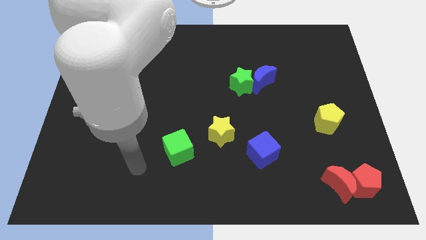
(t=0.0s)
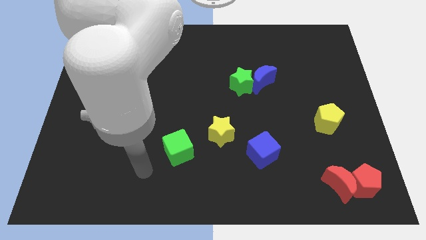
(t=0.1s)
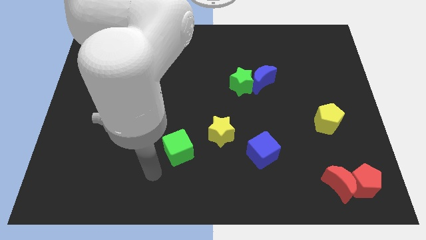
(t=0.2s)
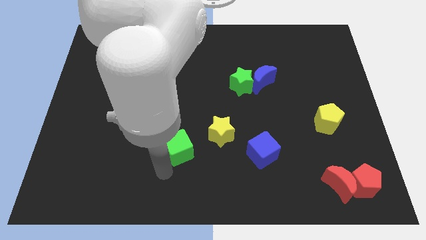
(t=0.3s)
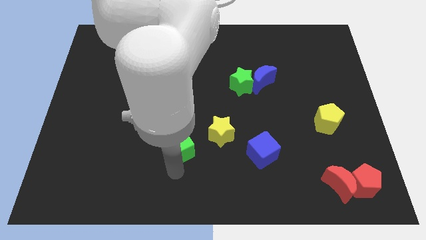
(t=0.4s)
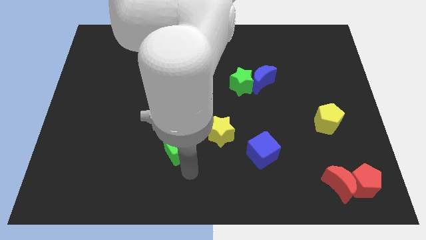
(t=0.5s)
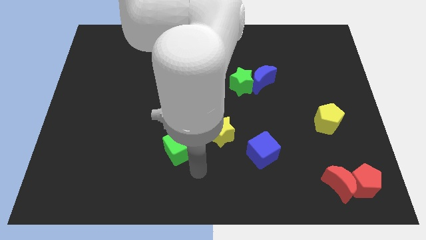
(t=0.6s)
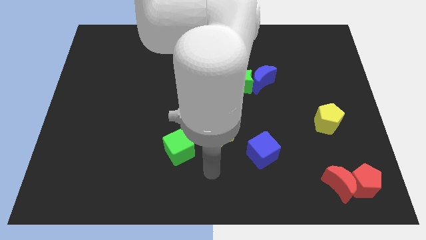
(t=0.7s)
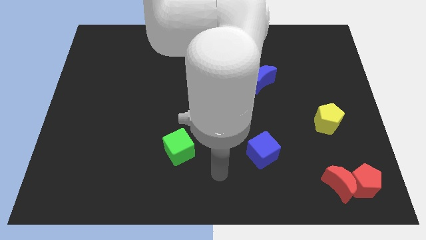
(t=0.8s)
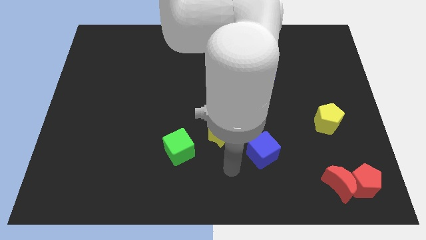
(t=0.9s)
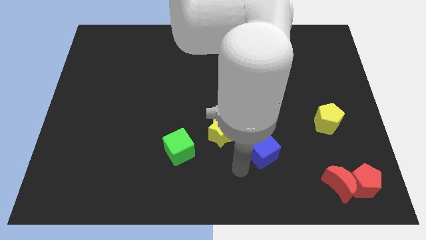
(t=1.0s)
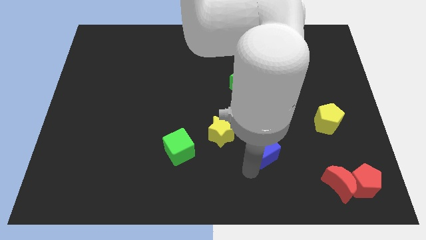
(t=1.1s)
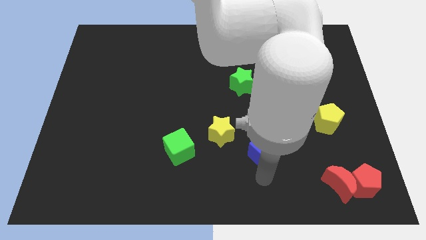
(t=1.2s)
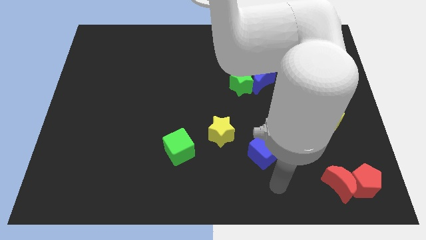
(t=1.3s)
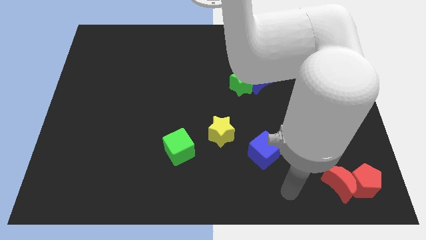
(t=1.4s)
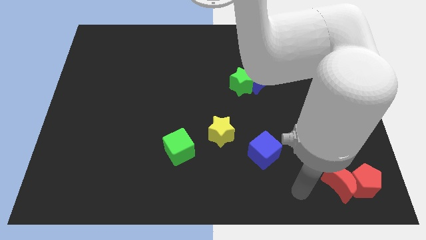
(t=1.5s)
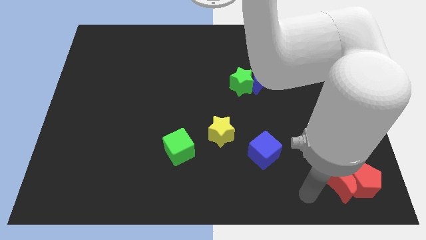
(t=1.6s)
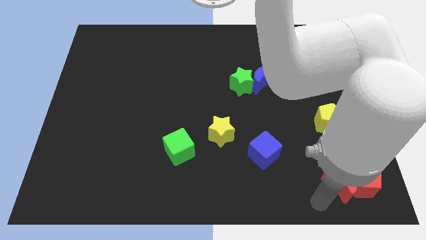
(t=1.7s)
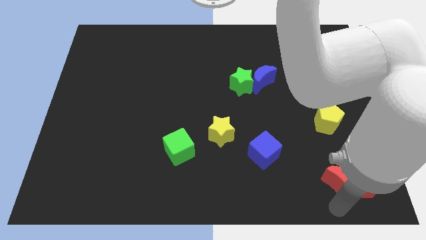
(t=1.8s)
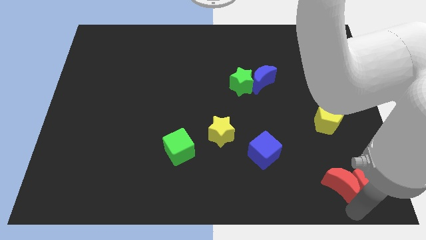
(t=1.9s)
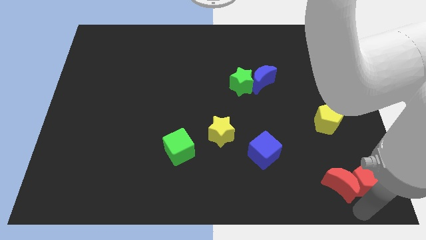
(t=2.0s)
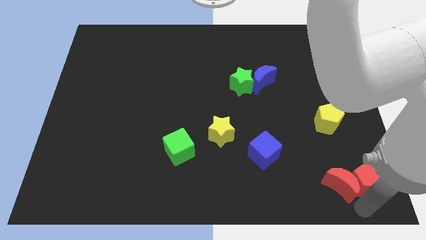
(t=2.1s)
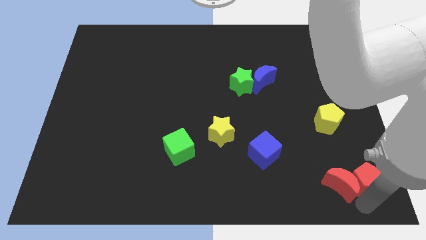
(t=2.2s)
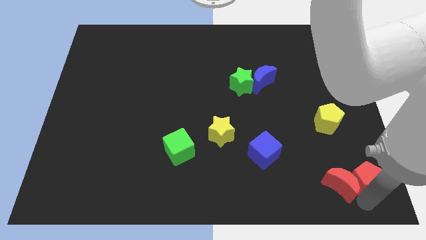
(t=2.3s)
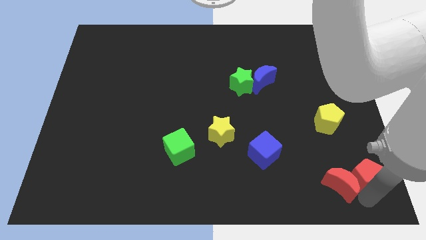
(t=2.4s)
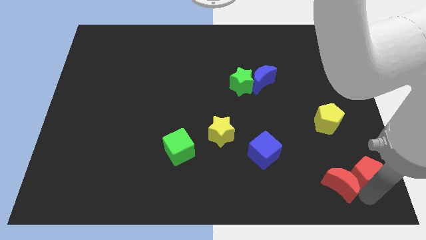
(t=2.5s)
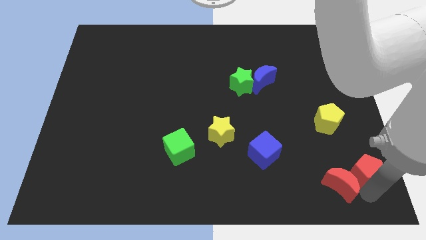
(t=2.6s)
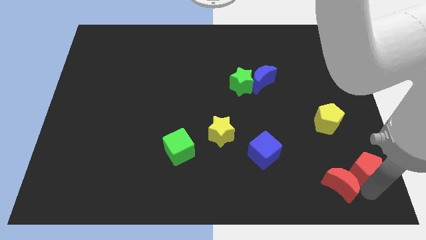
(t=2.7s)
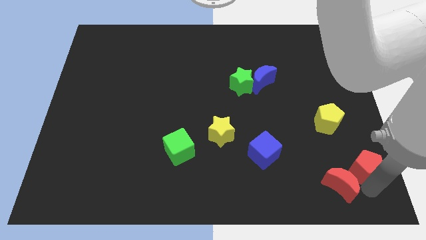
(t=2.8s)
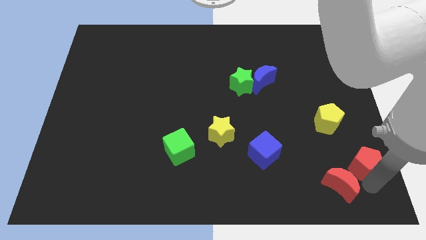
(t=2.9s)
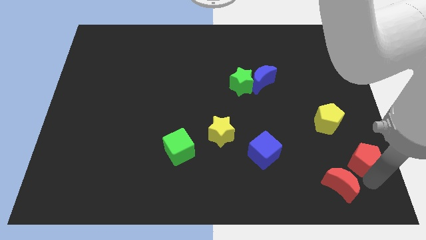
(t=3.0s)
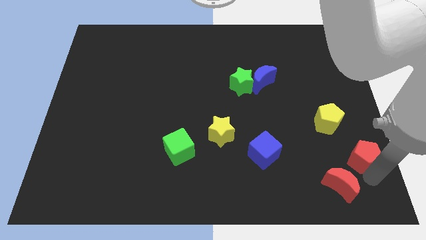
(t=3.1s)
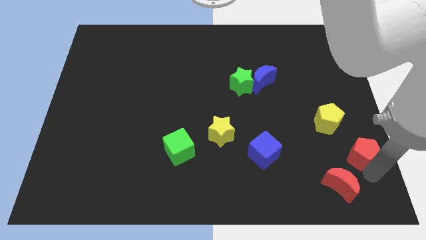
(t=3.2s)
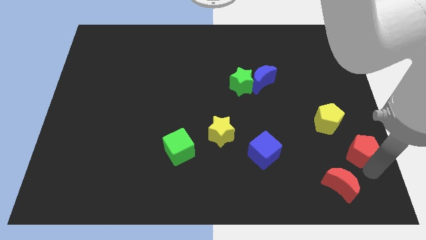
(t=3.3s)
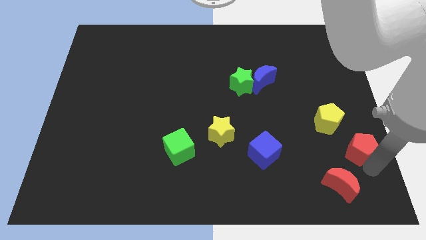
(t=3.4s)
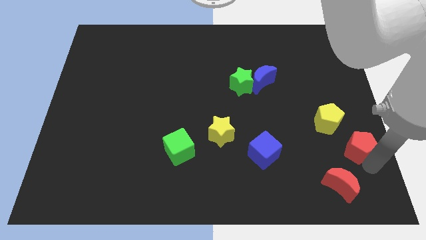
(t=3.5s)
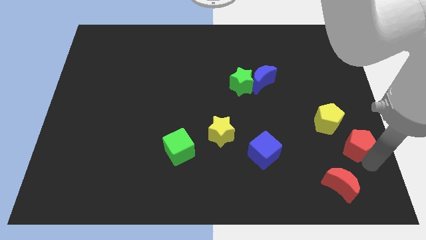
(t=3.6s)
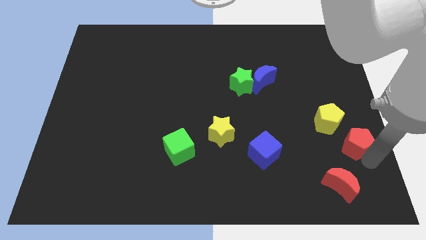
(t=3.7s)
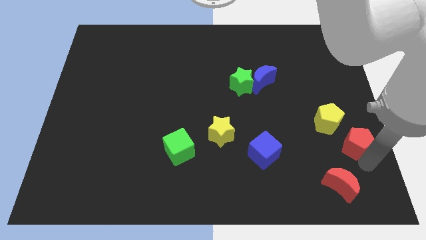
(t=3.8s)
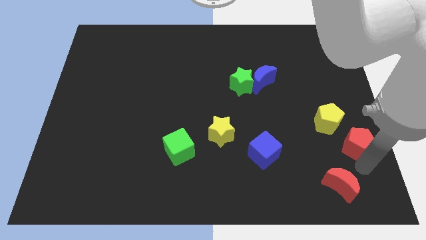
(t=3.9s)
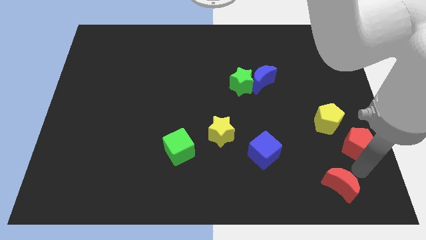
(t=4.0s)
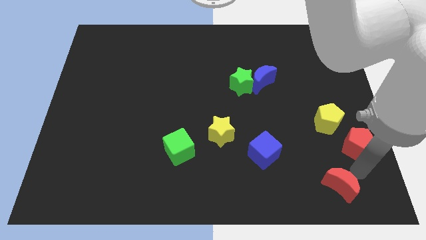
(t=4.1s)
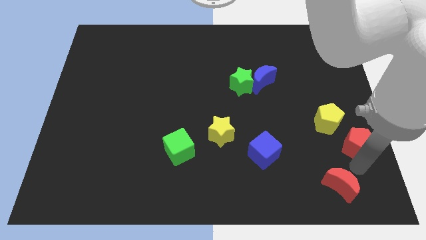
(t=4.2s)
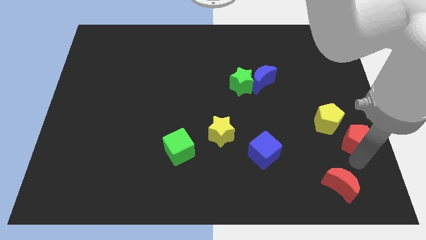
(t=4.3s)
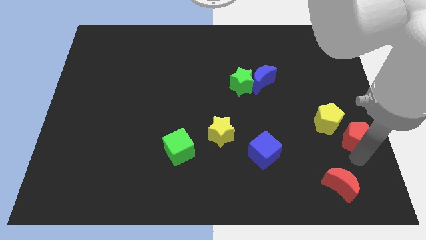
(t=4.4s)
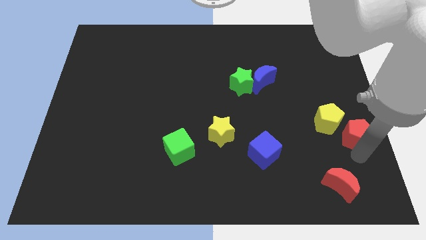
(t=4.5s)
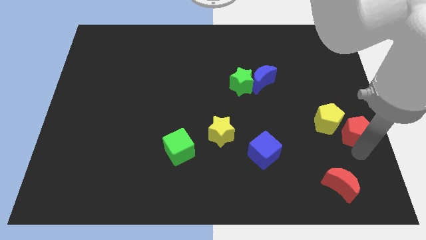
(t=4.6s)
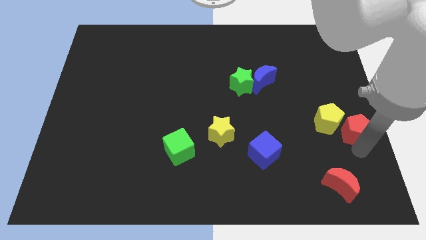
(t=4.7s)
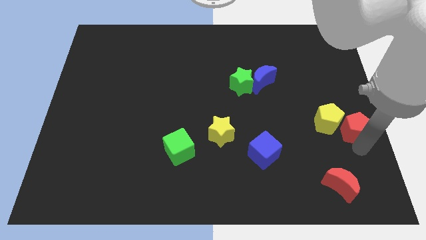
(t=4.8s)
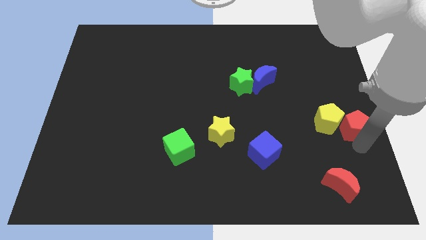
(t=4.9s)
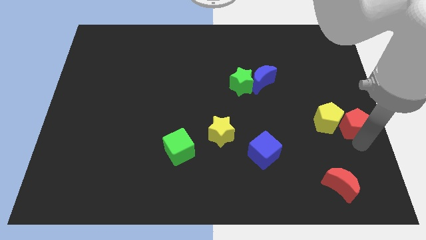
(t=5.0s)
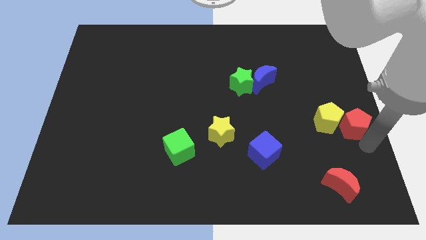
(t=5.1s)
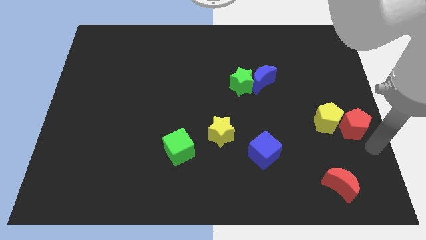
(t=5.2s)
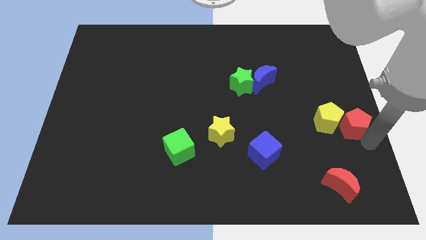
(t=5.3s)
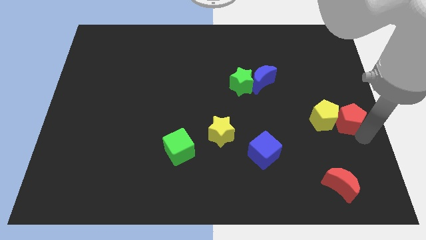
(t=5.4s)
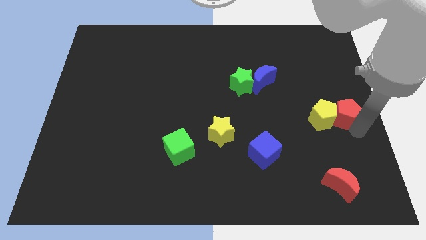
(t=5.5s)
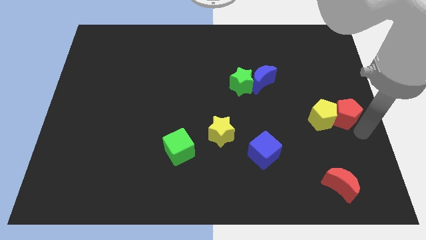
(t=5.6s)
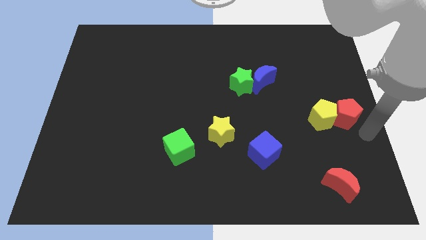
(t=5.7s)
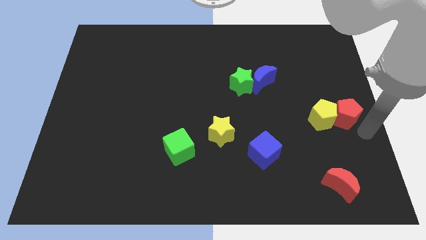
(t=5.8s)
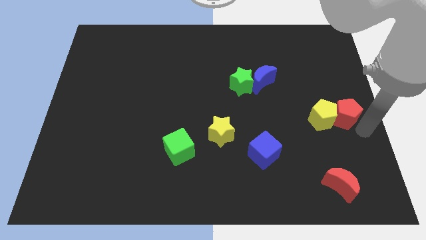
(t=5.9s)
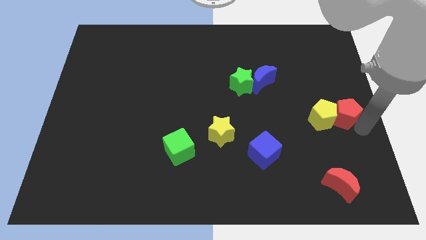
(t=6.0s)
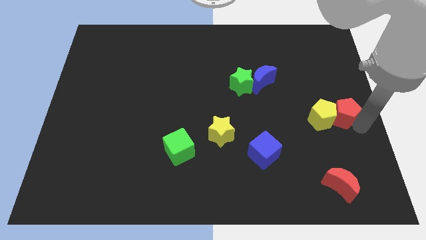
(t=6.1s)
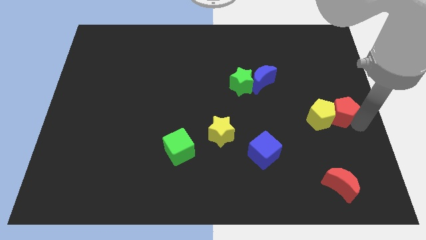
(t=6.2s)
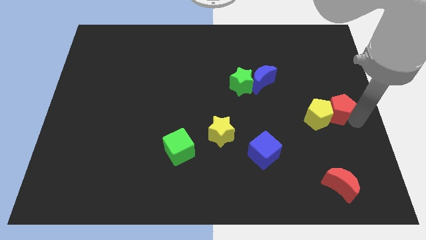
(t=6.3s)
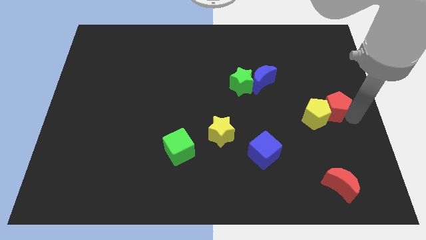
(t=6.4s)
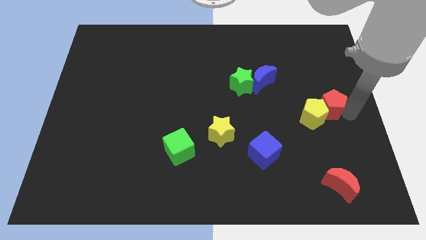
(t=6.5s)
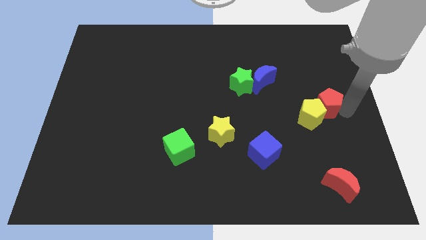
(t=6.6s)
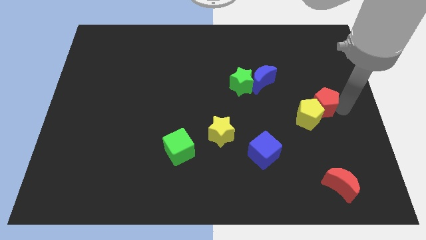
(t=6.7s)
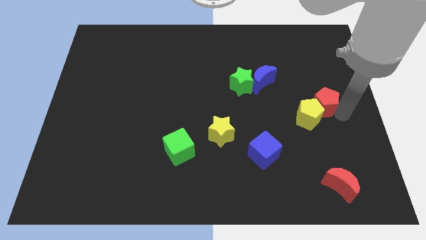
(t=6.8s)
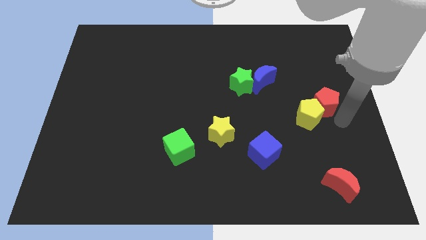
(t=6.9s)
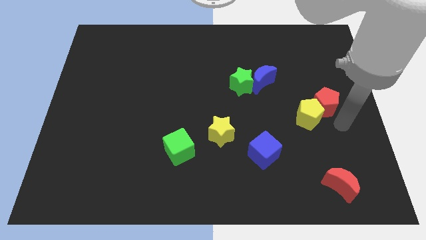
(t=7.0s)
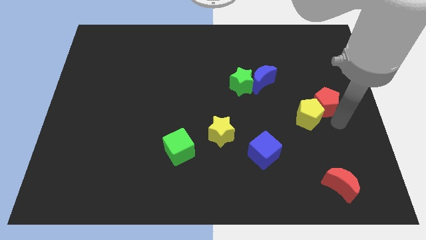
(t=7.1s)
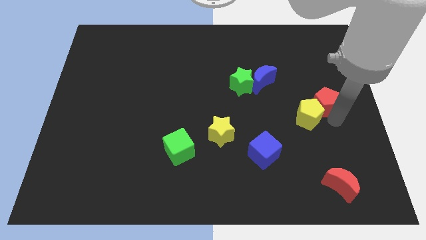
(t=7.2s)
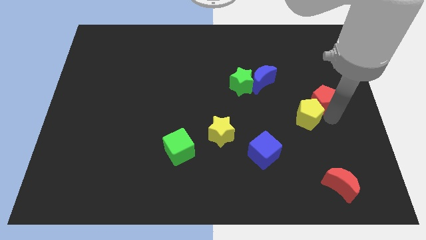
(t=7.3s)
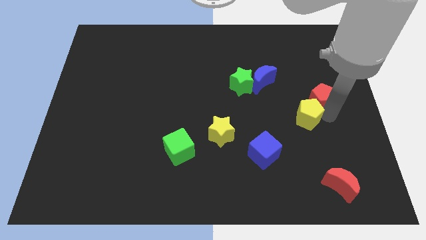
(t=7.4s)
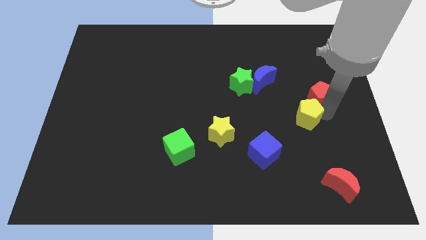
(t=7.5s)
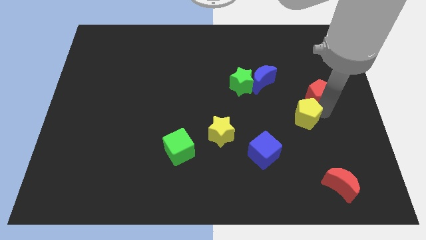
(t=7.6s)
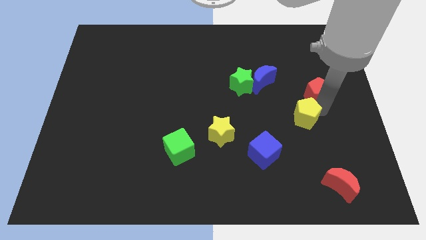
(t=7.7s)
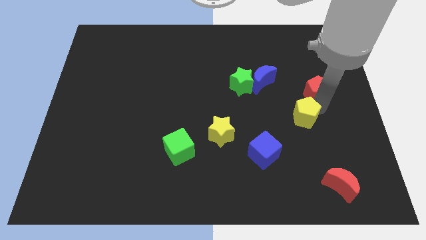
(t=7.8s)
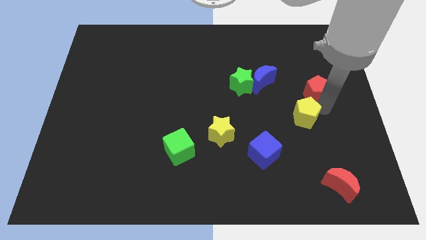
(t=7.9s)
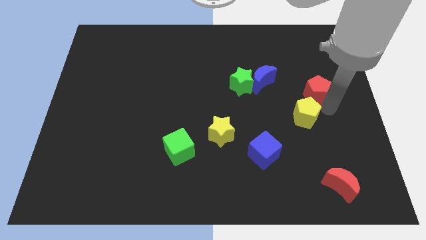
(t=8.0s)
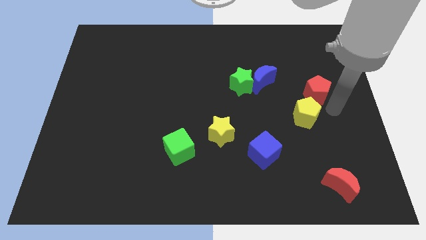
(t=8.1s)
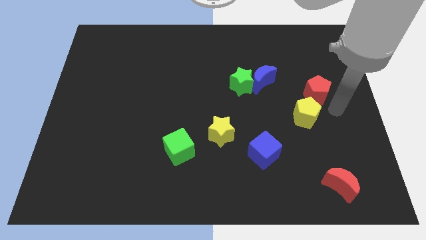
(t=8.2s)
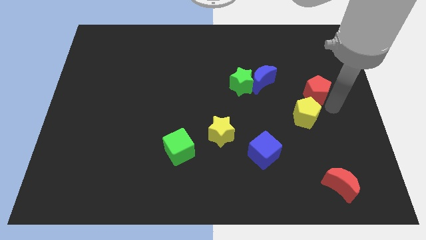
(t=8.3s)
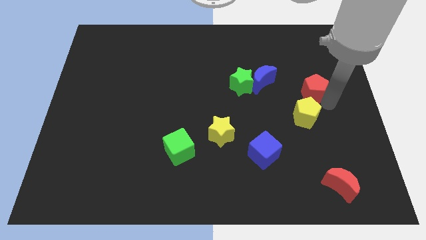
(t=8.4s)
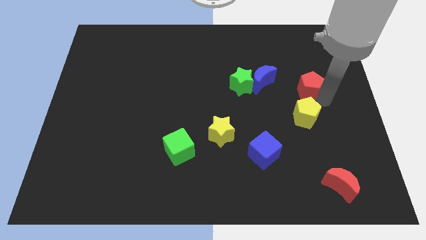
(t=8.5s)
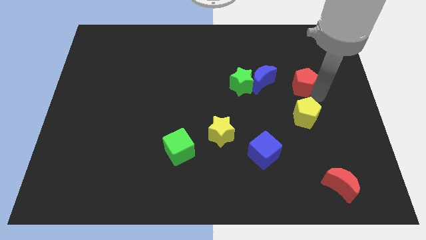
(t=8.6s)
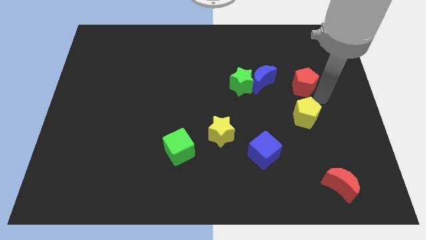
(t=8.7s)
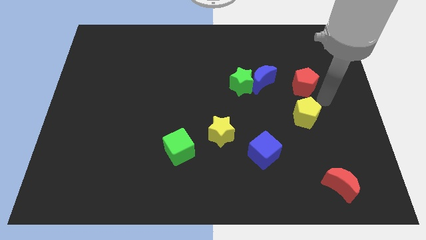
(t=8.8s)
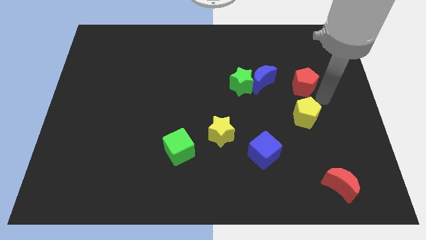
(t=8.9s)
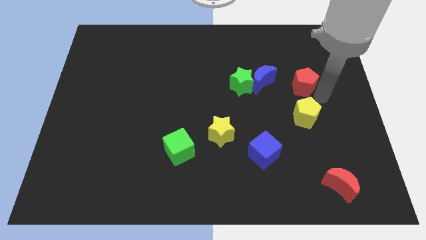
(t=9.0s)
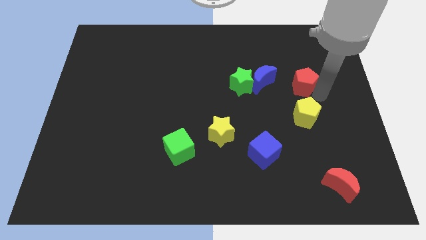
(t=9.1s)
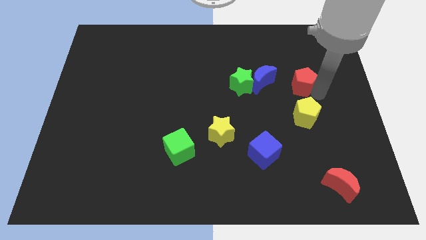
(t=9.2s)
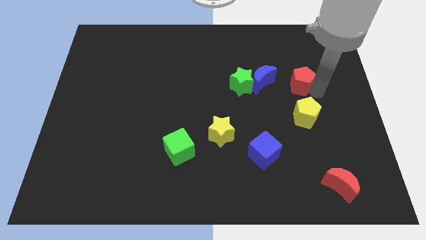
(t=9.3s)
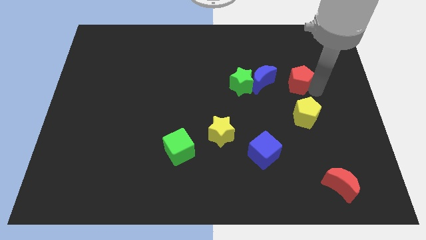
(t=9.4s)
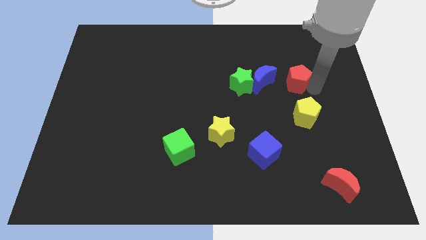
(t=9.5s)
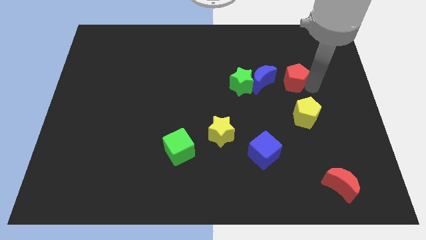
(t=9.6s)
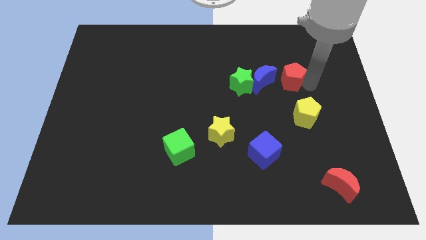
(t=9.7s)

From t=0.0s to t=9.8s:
put the red pentagon to the top right side of the blue moon
